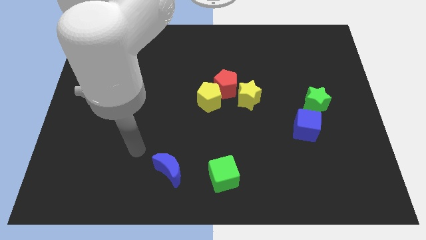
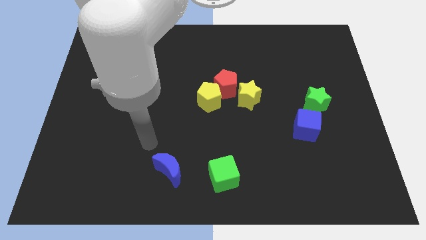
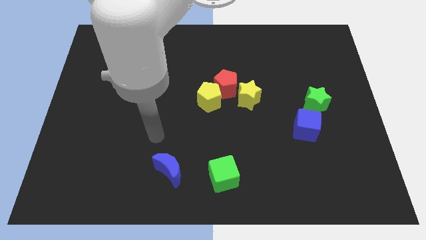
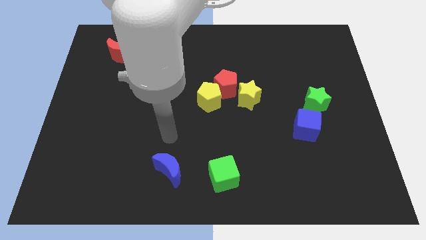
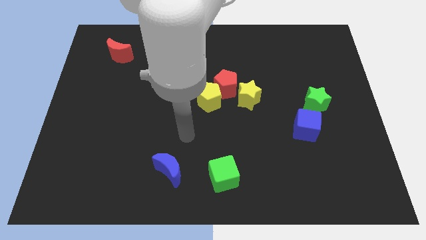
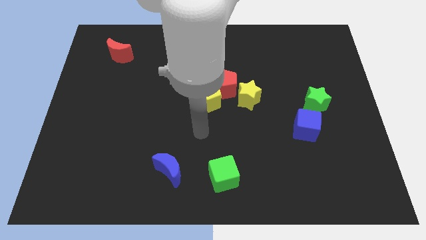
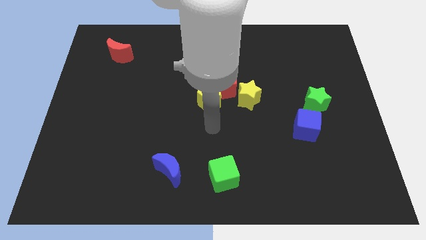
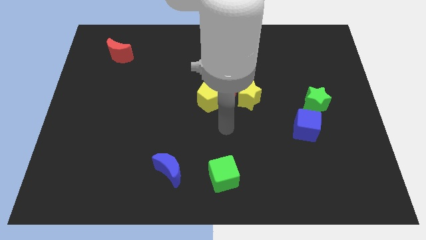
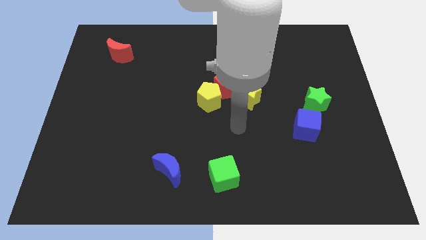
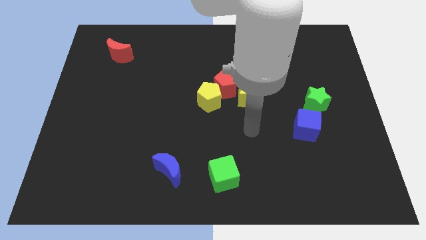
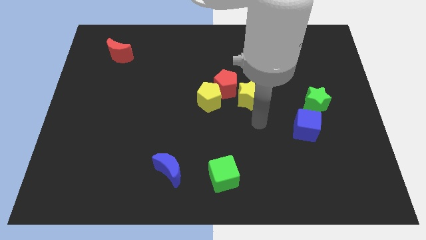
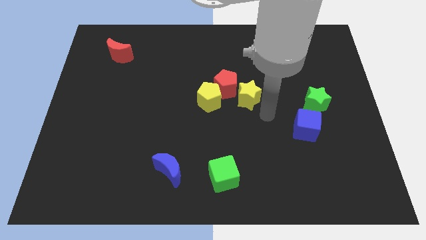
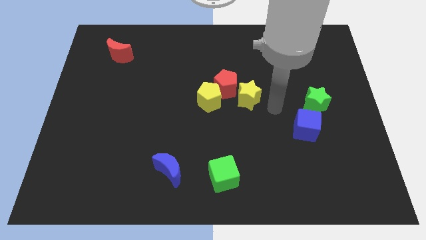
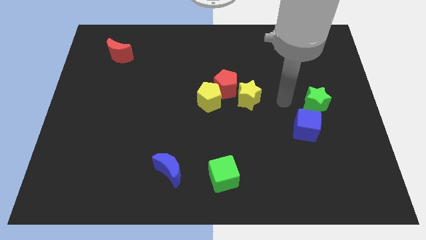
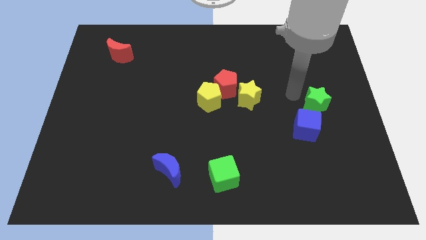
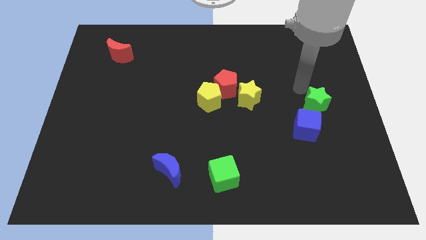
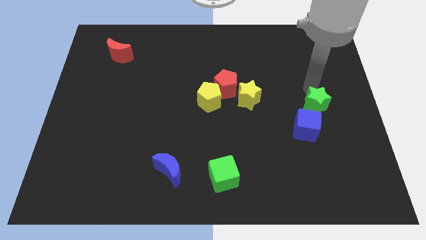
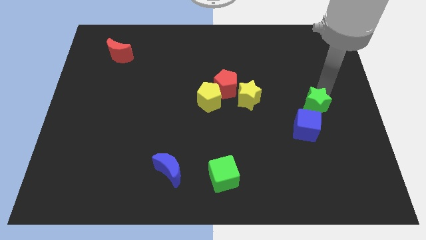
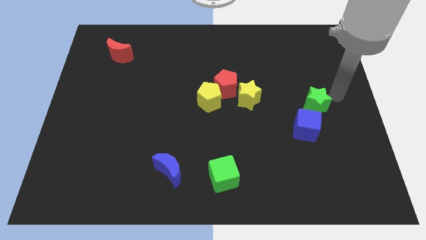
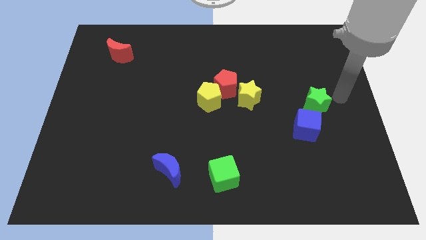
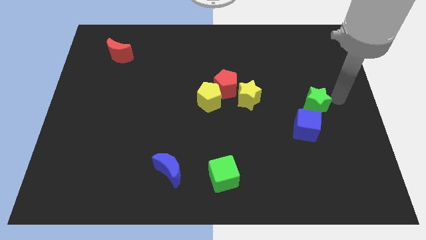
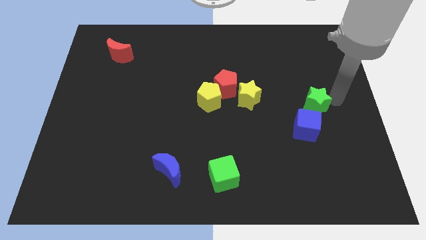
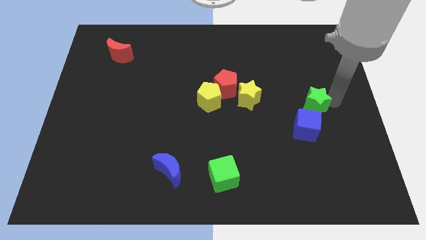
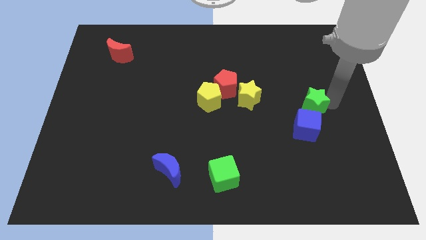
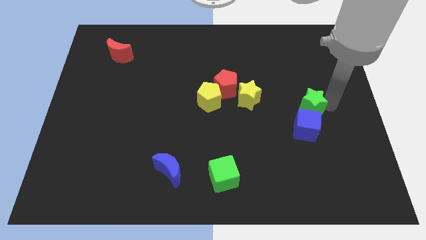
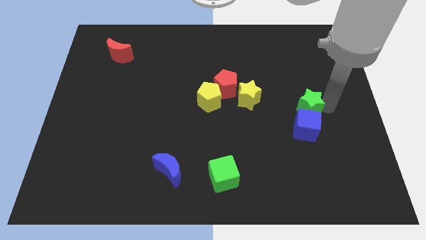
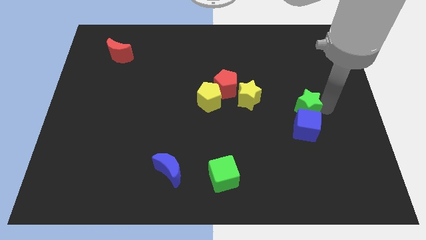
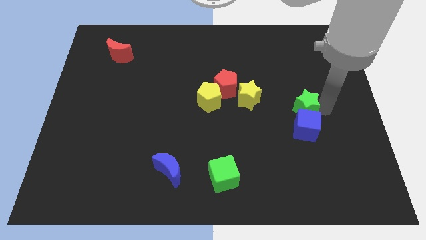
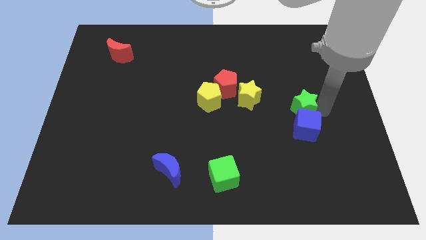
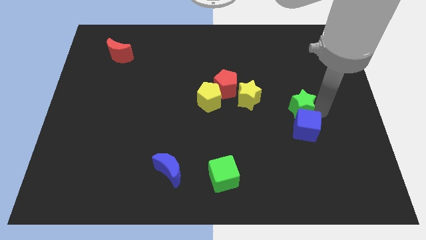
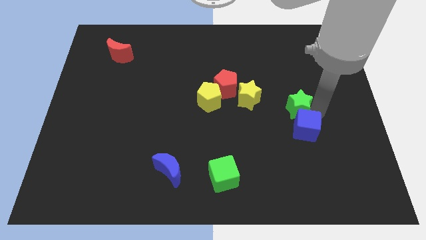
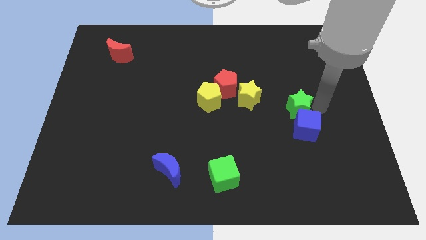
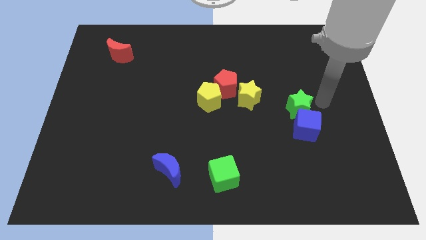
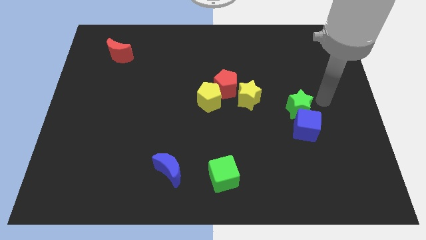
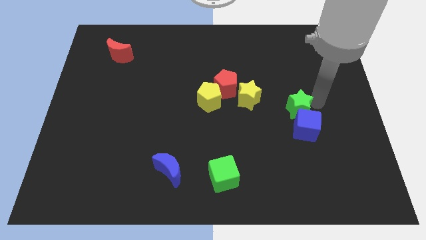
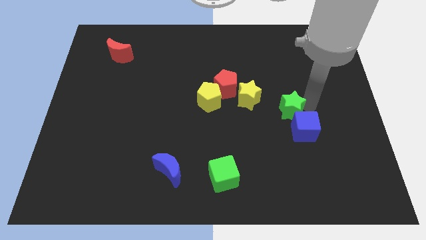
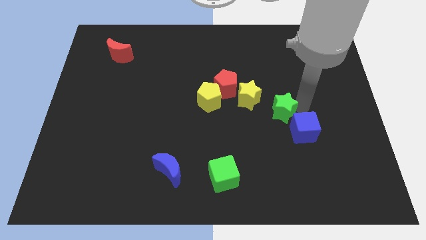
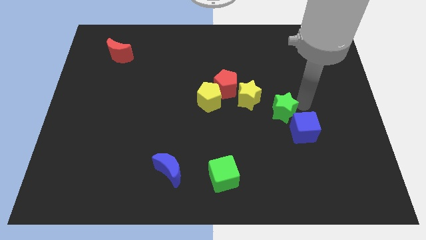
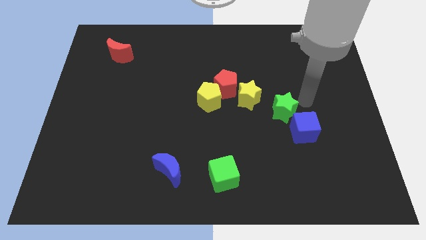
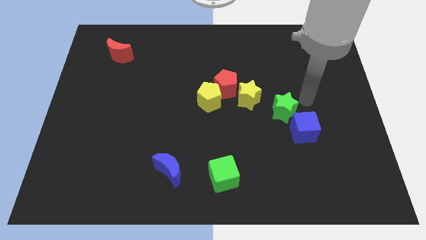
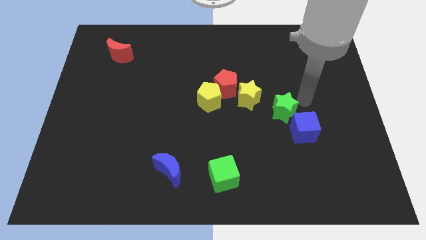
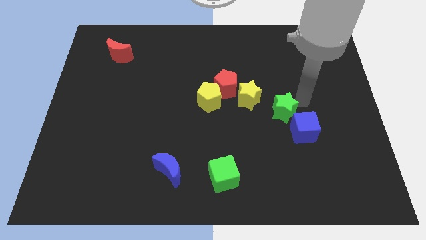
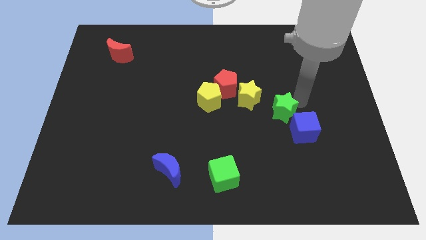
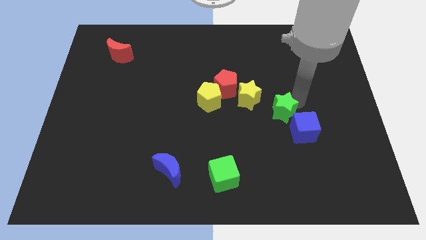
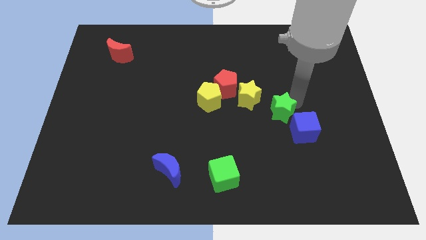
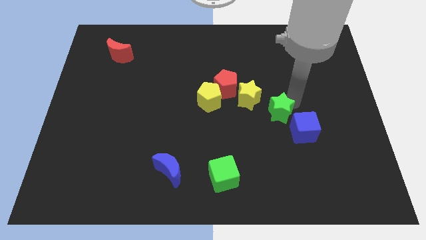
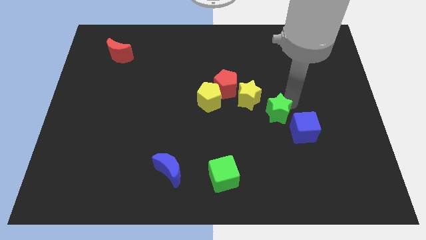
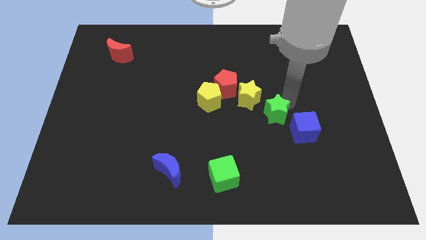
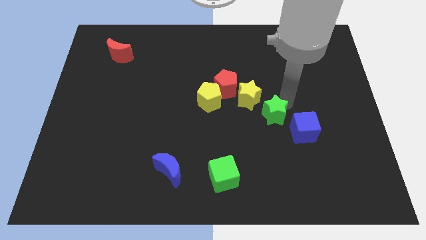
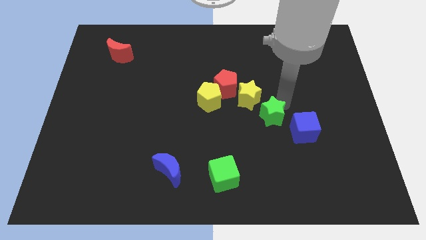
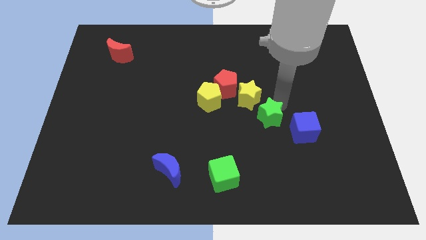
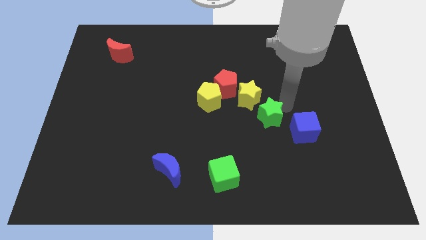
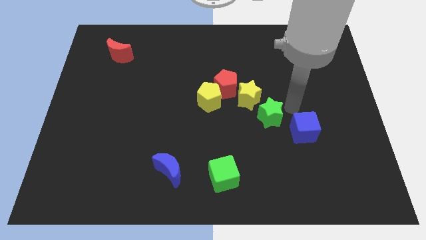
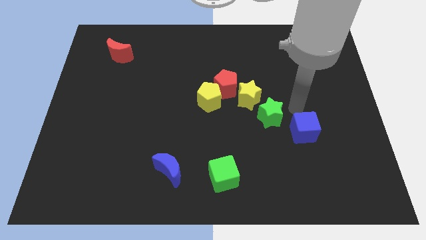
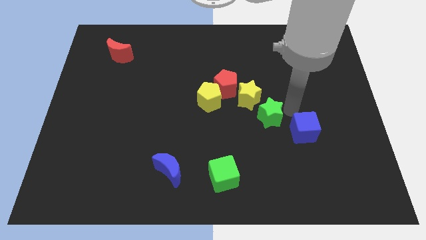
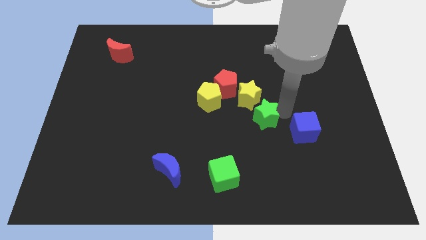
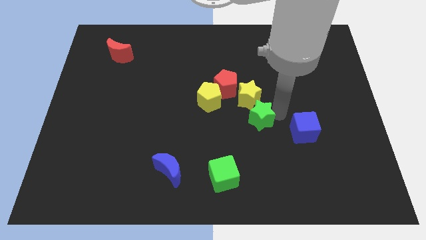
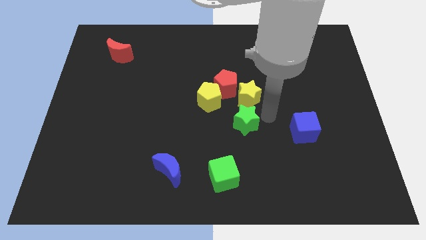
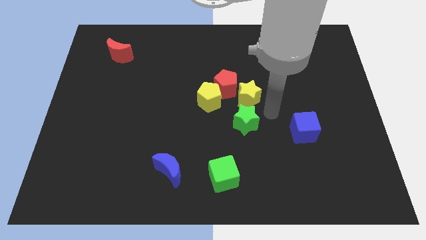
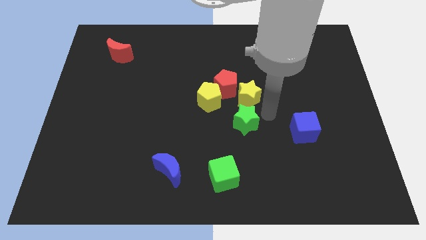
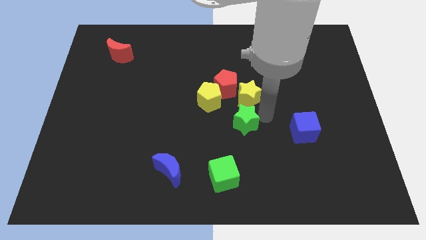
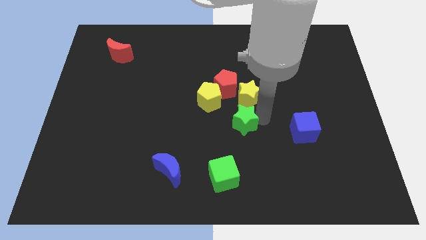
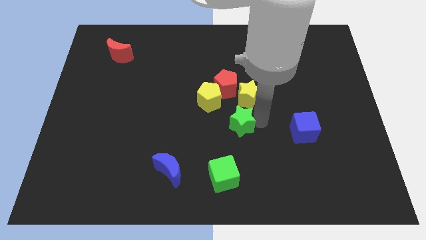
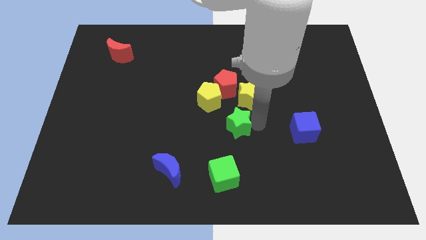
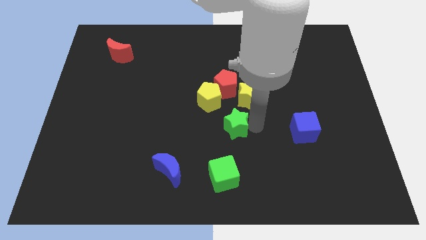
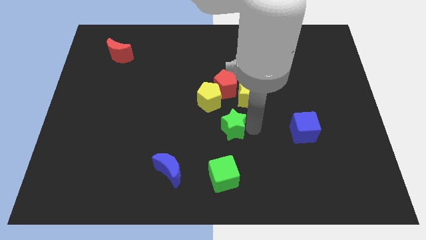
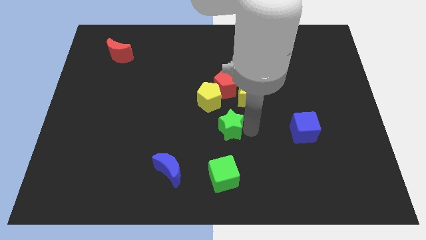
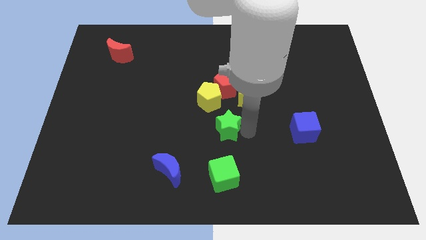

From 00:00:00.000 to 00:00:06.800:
slide the green star to the bottom side of the yellow pentagon
